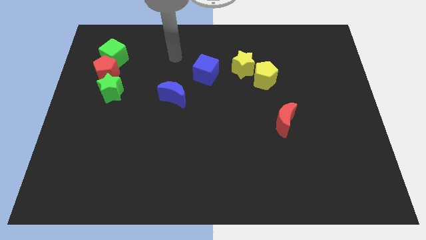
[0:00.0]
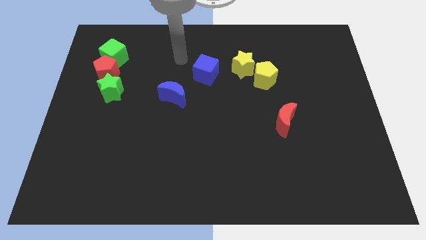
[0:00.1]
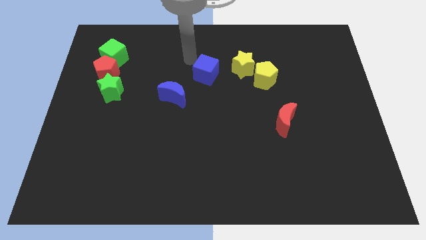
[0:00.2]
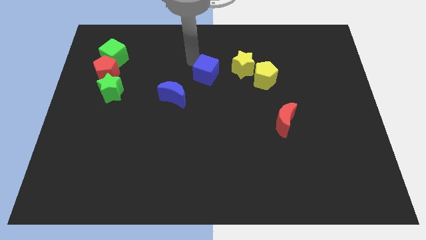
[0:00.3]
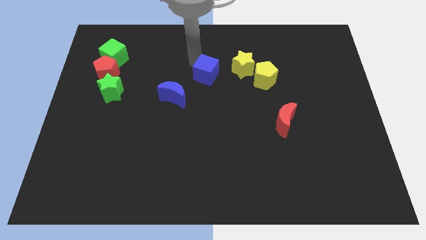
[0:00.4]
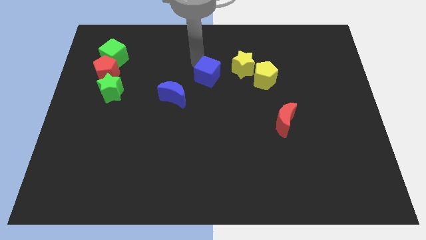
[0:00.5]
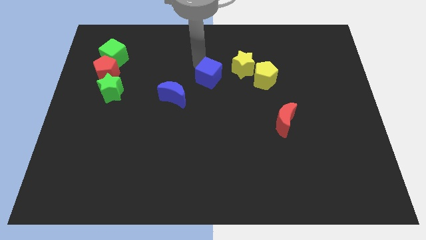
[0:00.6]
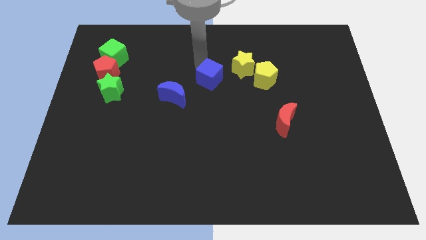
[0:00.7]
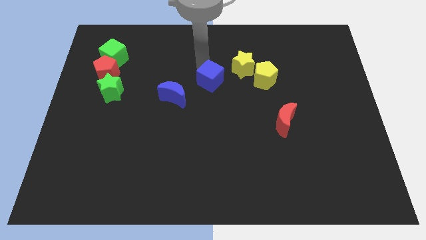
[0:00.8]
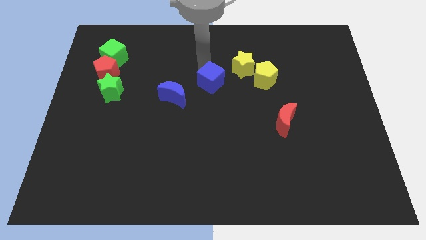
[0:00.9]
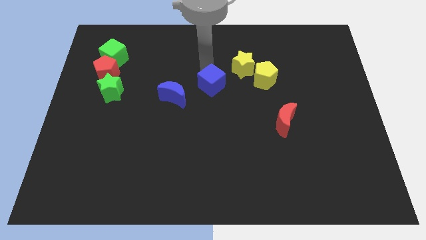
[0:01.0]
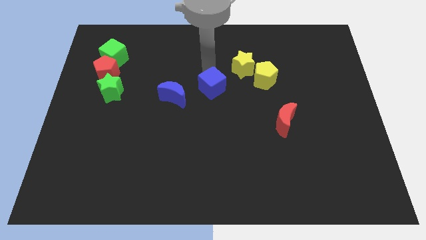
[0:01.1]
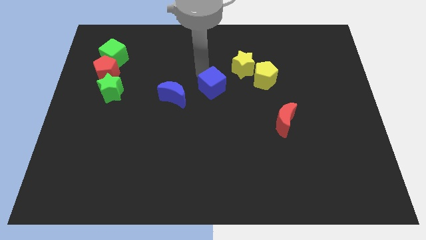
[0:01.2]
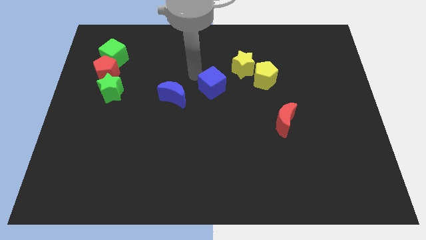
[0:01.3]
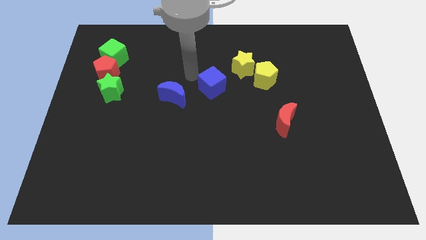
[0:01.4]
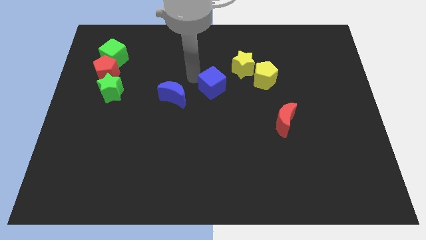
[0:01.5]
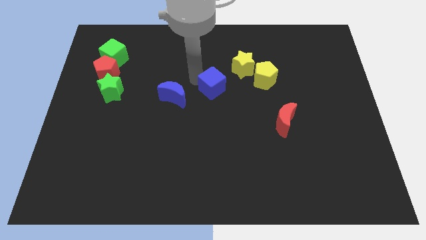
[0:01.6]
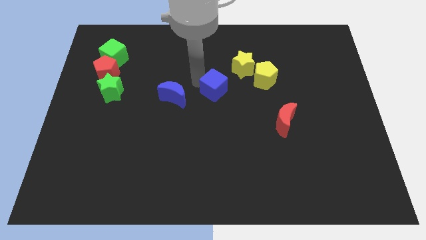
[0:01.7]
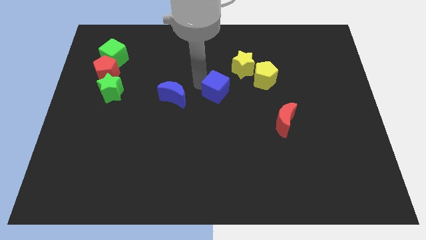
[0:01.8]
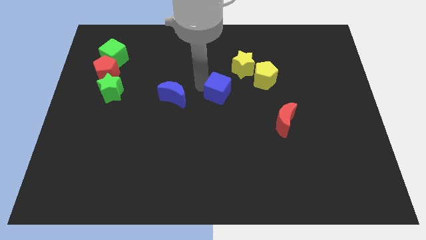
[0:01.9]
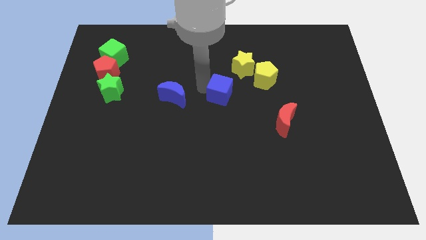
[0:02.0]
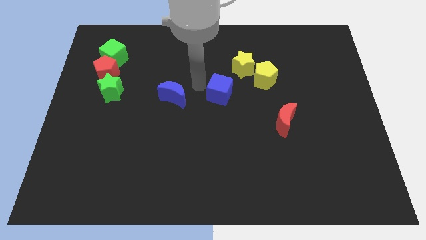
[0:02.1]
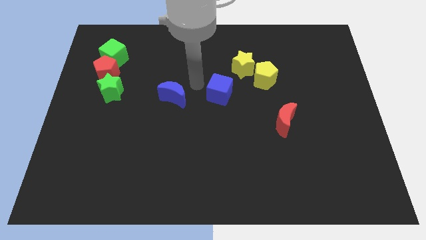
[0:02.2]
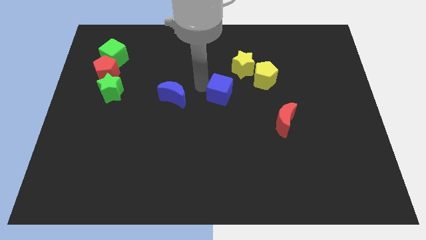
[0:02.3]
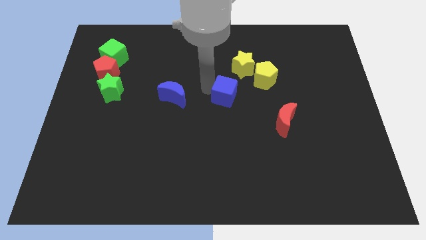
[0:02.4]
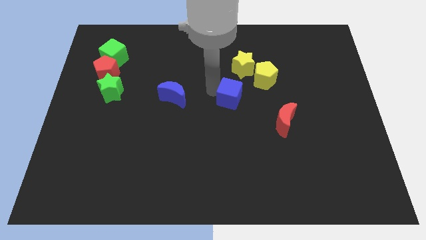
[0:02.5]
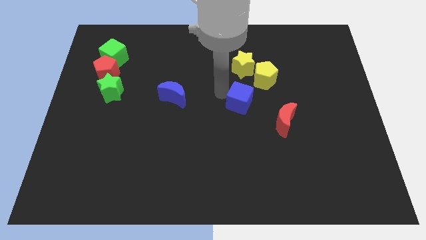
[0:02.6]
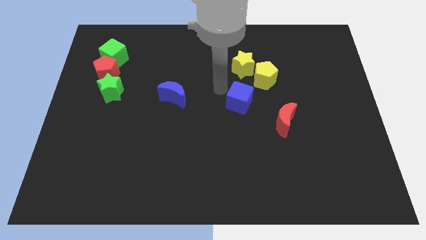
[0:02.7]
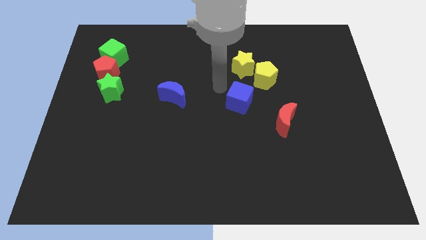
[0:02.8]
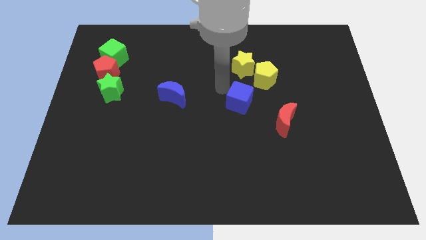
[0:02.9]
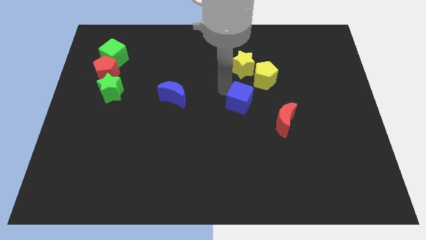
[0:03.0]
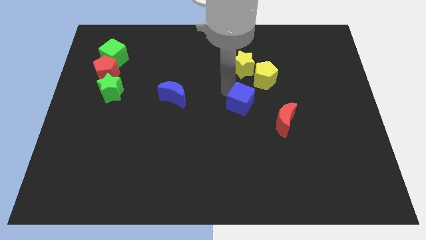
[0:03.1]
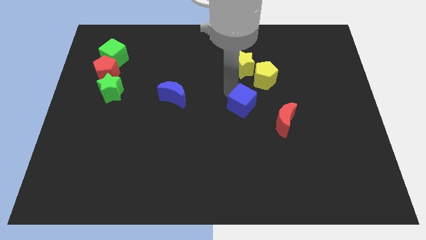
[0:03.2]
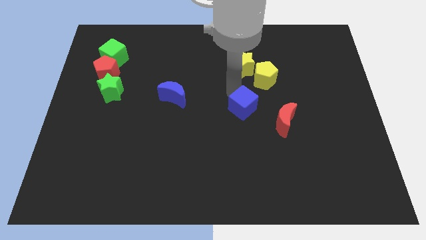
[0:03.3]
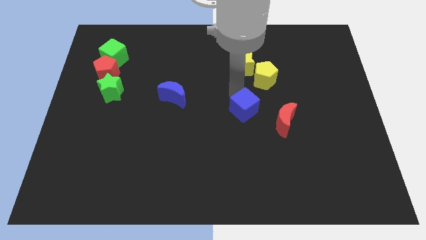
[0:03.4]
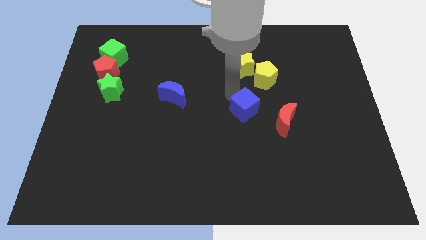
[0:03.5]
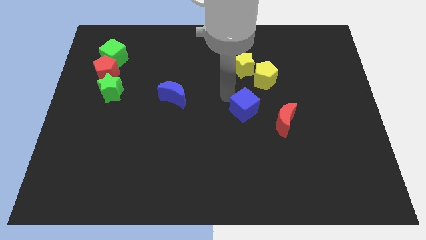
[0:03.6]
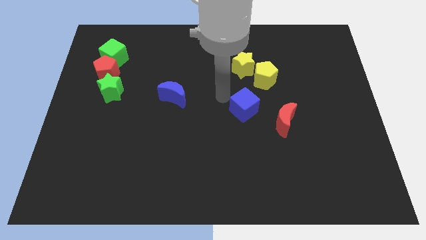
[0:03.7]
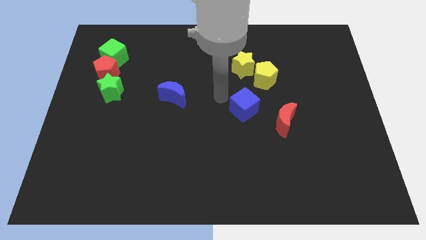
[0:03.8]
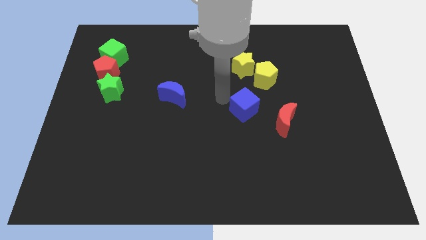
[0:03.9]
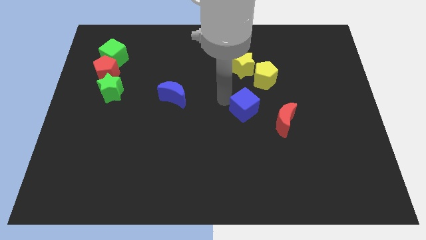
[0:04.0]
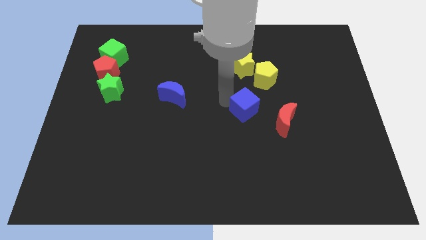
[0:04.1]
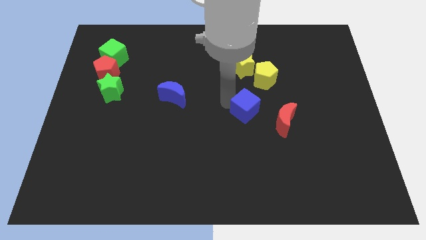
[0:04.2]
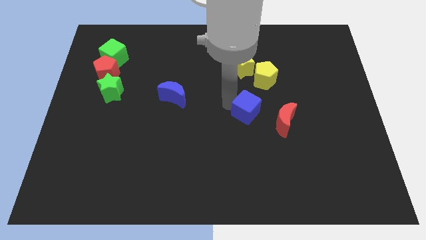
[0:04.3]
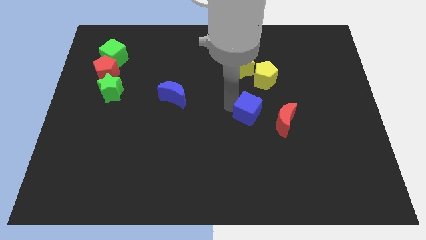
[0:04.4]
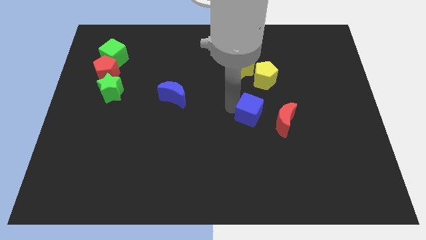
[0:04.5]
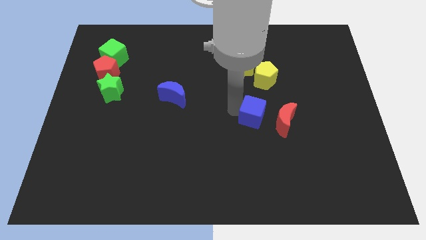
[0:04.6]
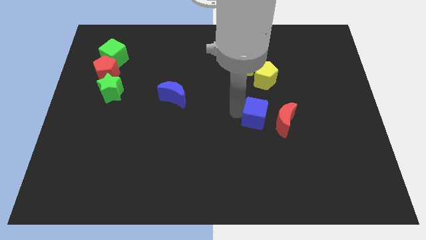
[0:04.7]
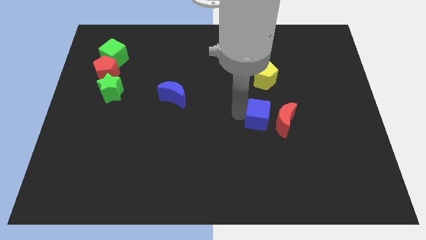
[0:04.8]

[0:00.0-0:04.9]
put the blue cube next to the red moon

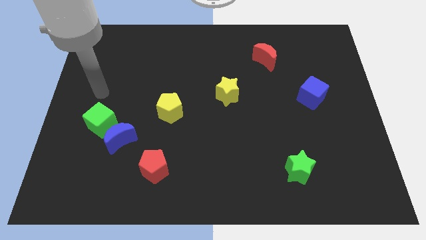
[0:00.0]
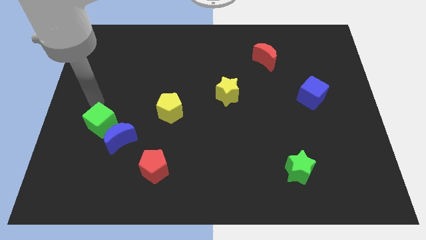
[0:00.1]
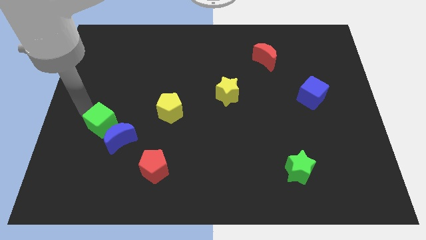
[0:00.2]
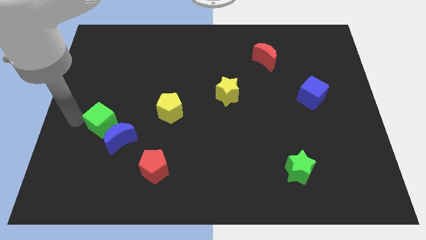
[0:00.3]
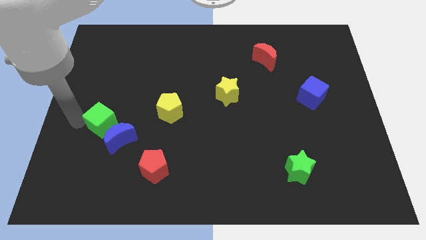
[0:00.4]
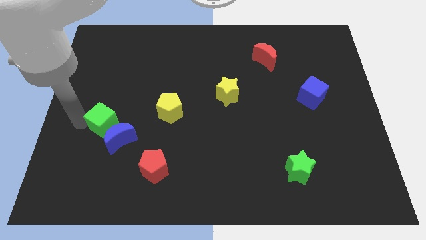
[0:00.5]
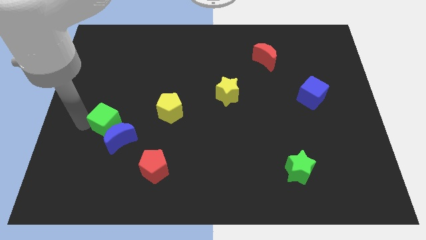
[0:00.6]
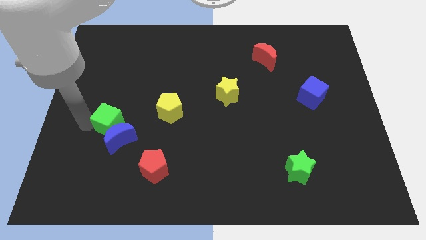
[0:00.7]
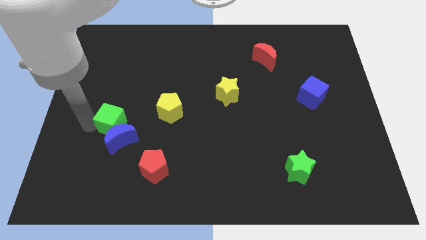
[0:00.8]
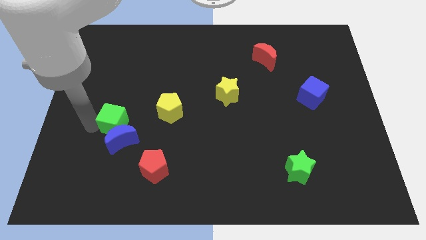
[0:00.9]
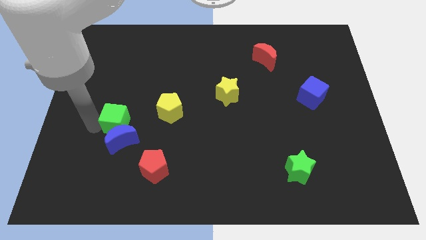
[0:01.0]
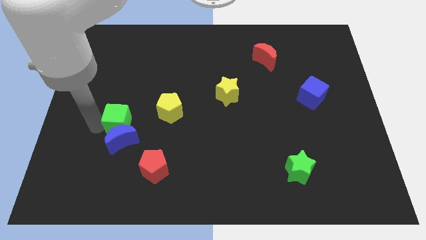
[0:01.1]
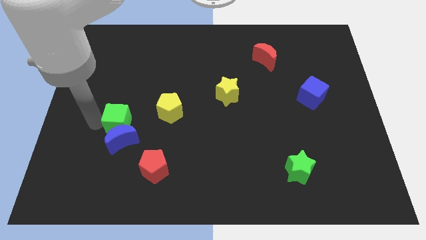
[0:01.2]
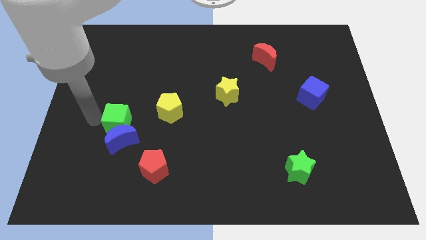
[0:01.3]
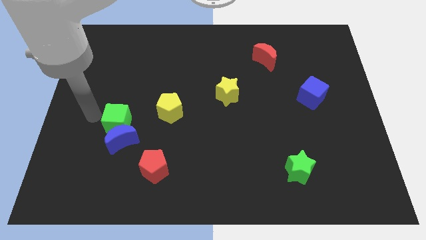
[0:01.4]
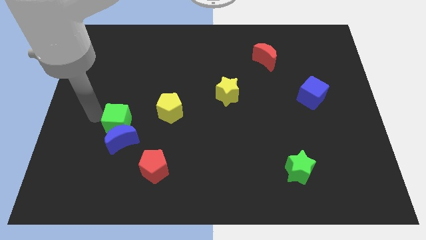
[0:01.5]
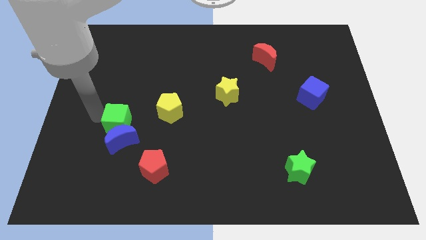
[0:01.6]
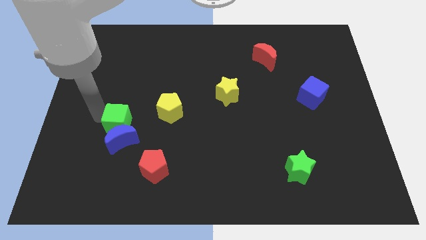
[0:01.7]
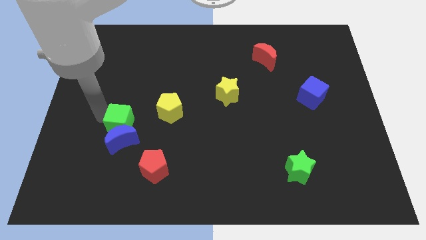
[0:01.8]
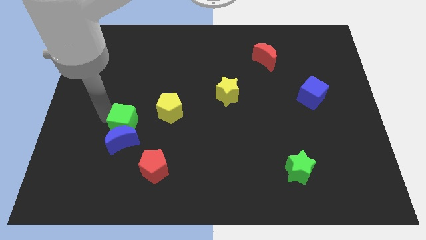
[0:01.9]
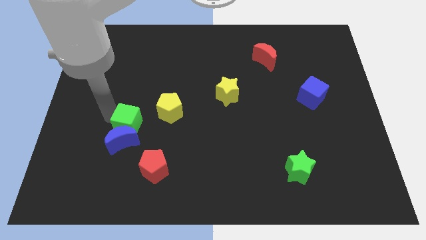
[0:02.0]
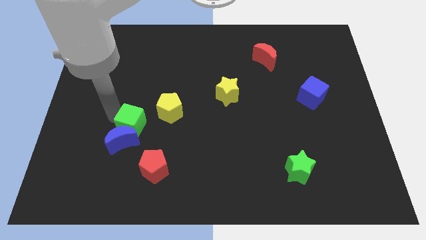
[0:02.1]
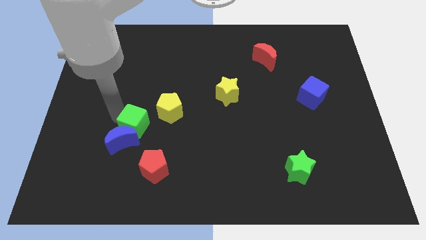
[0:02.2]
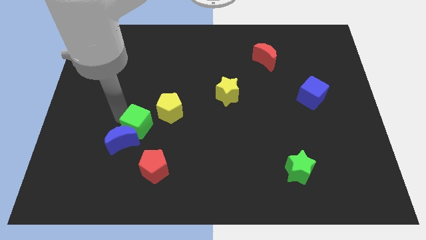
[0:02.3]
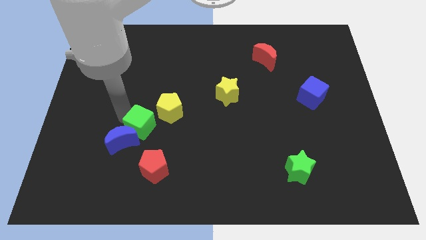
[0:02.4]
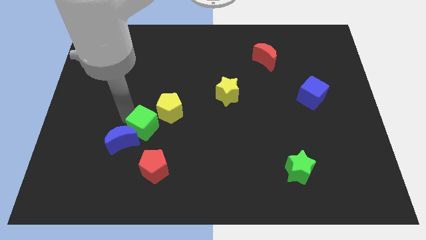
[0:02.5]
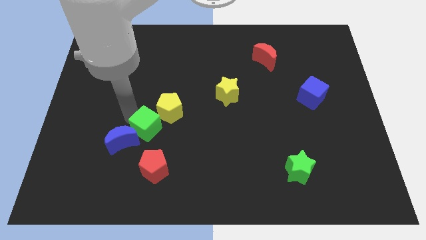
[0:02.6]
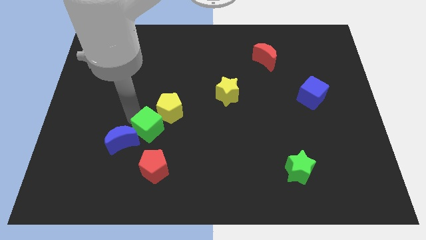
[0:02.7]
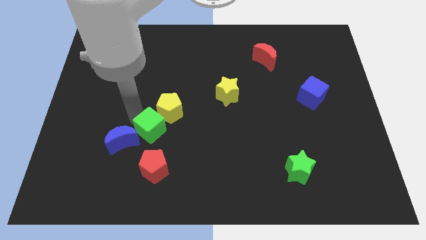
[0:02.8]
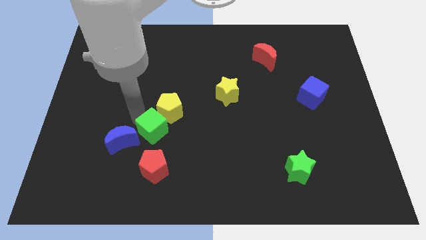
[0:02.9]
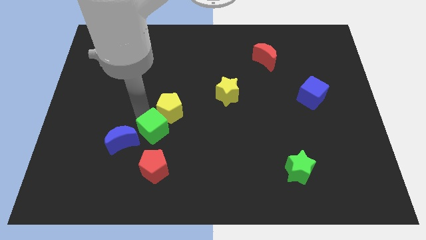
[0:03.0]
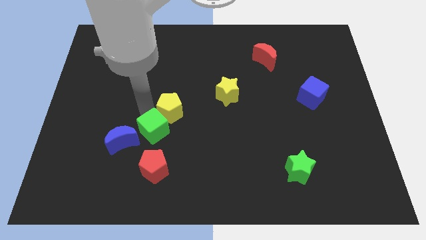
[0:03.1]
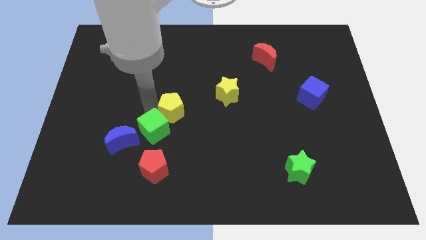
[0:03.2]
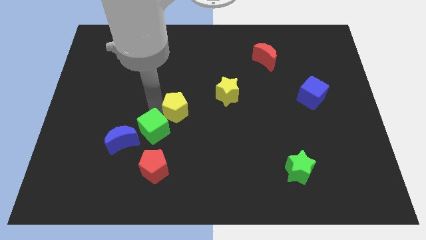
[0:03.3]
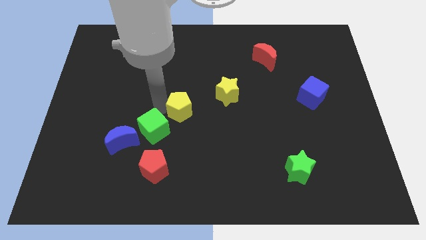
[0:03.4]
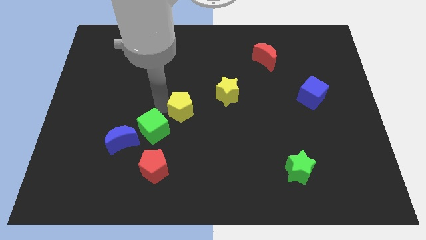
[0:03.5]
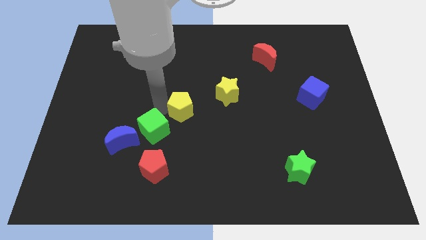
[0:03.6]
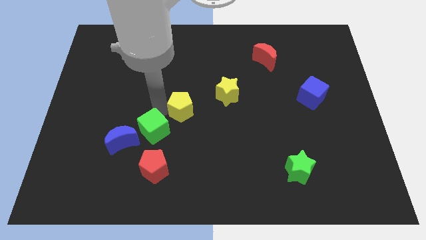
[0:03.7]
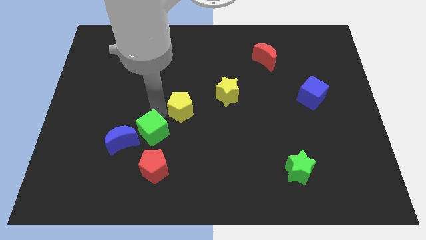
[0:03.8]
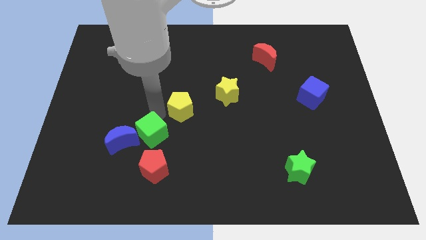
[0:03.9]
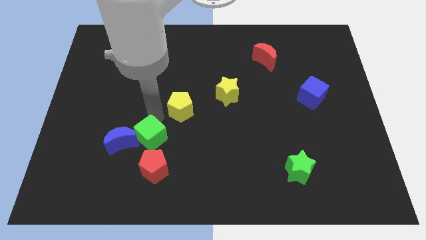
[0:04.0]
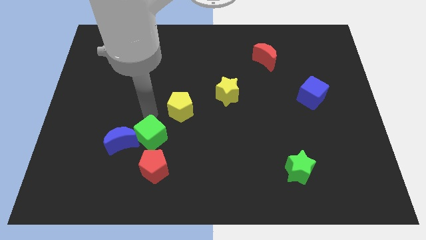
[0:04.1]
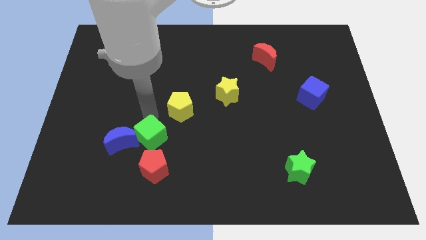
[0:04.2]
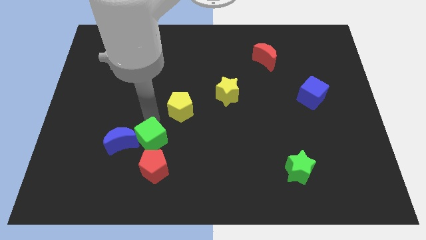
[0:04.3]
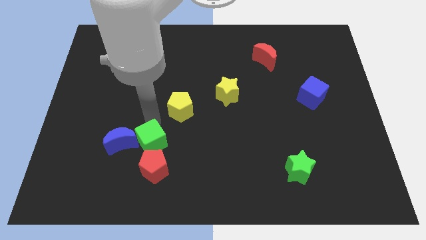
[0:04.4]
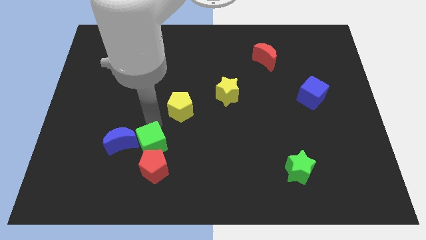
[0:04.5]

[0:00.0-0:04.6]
move the green cube towards the red pentagon
